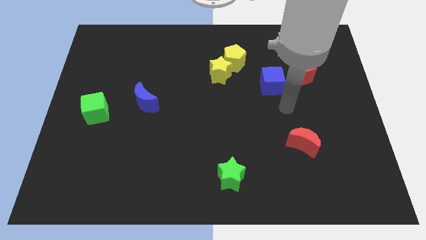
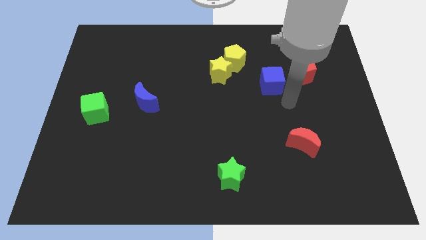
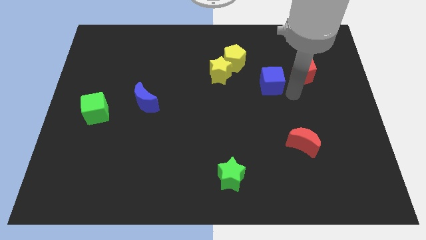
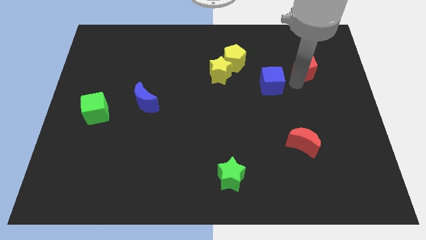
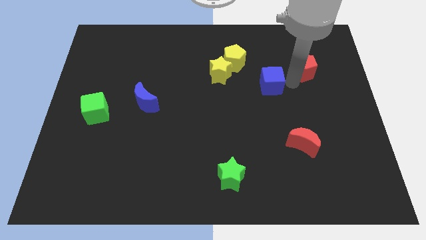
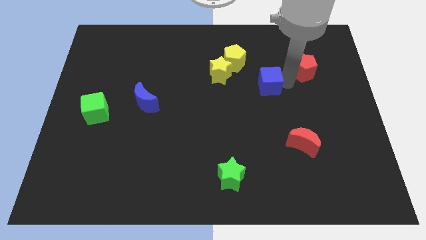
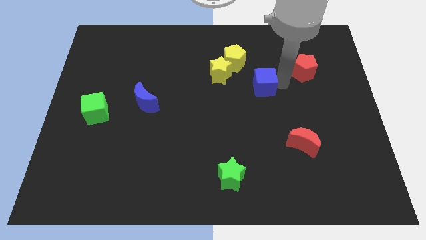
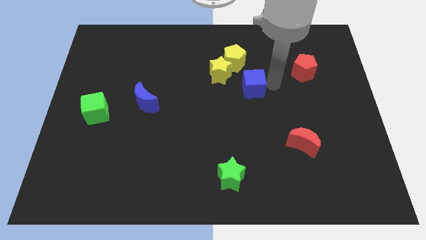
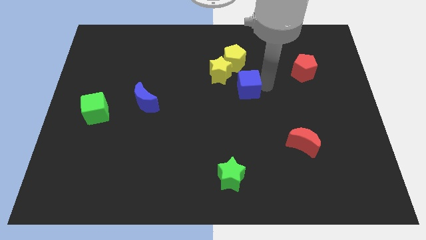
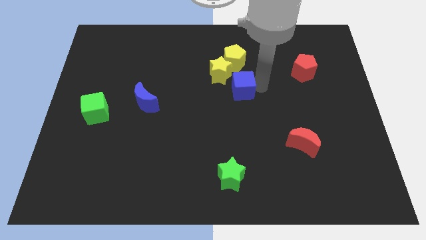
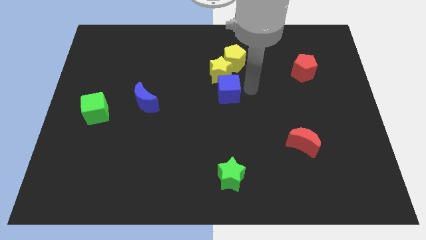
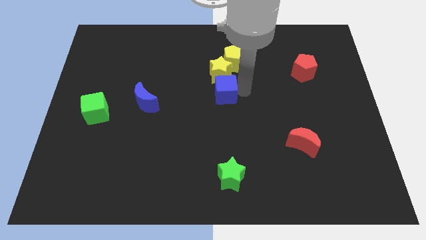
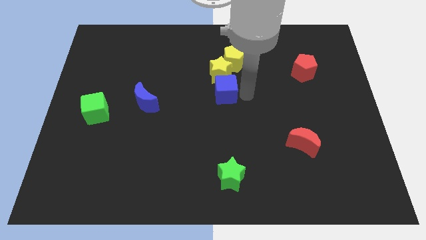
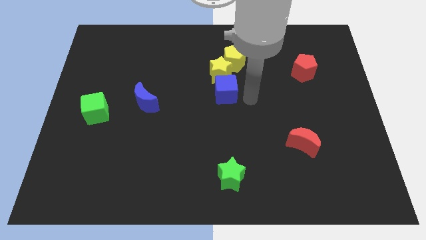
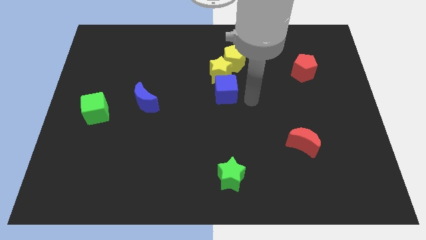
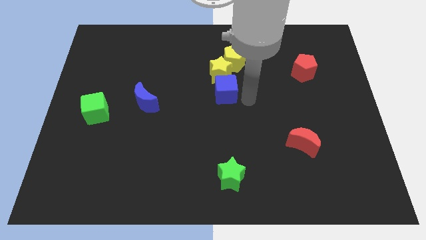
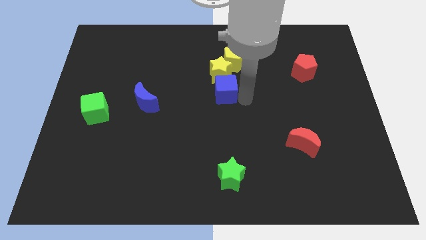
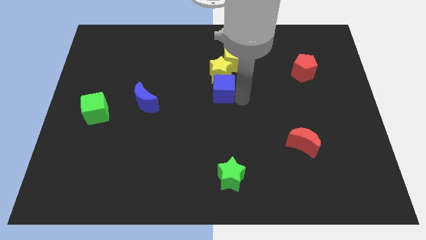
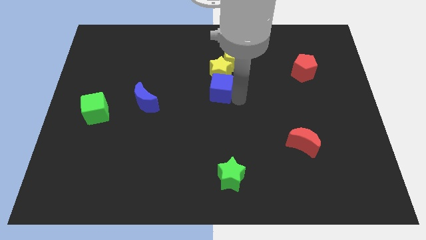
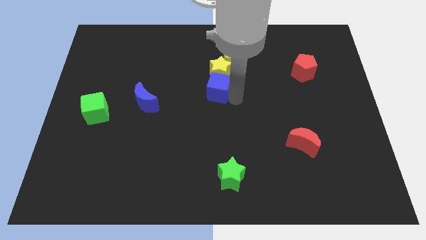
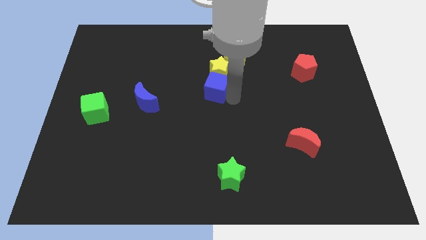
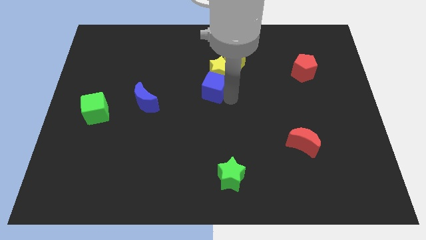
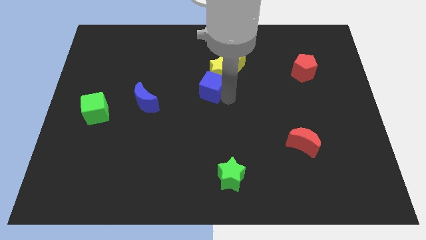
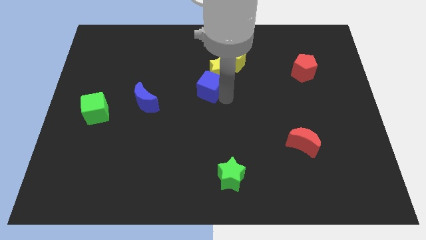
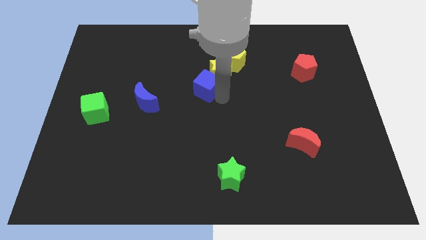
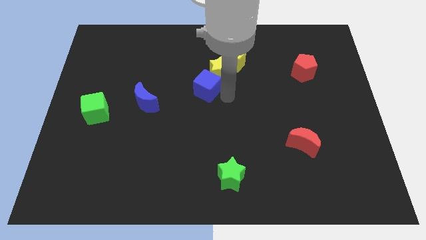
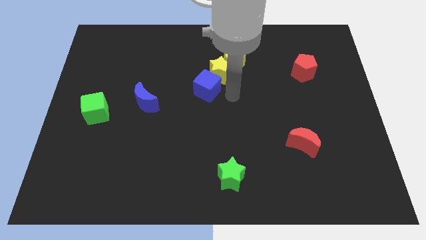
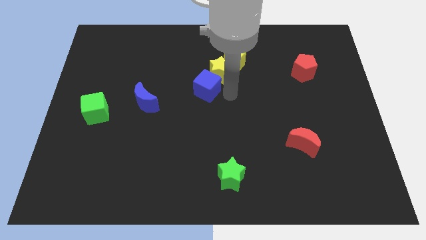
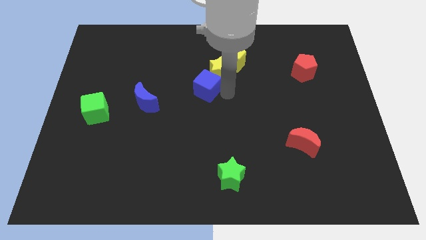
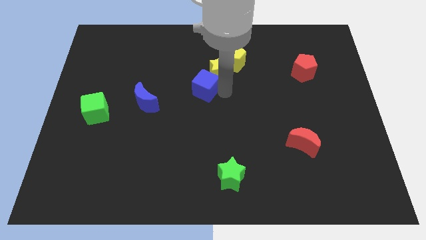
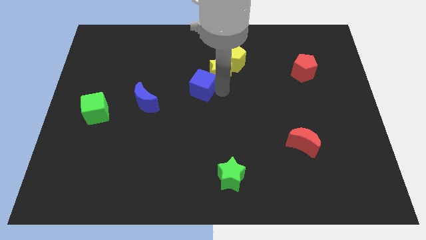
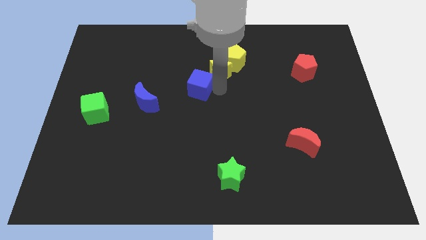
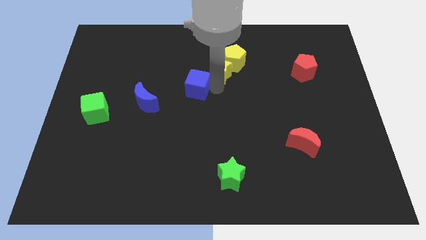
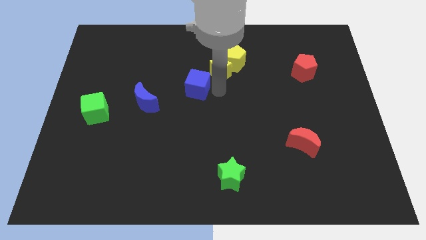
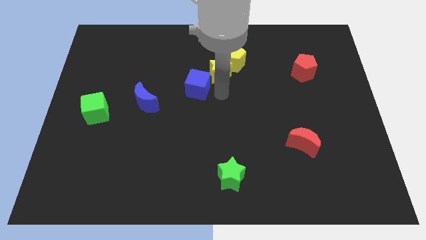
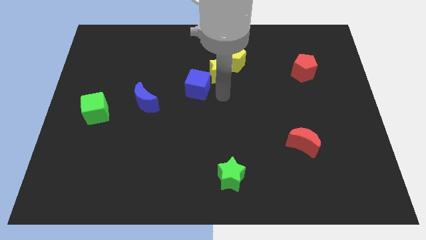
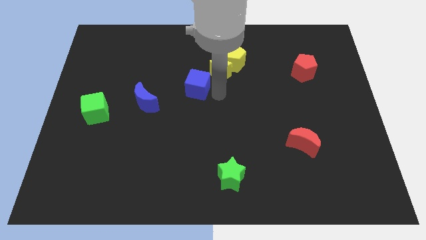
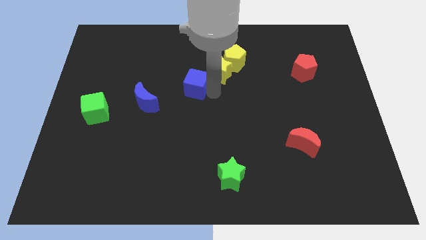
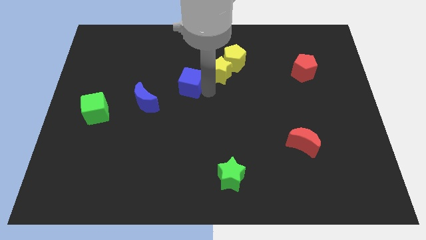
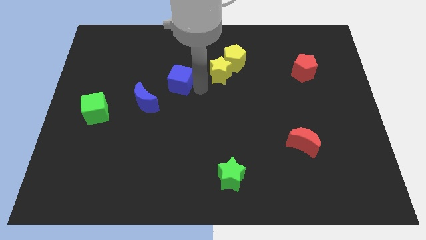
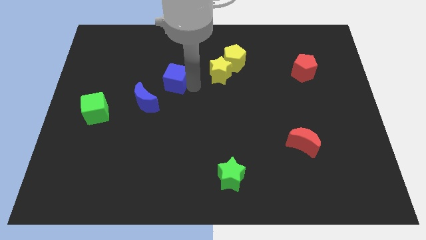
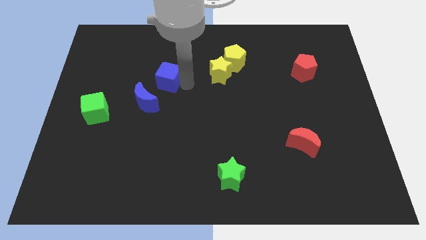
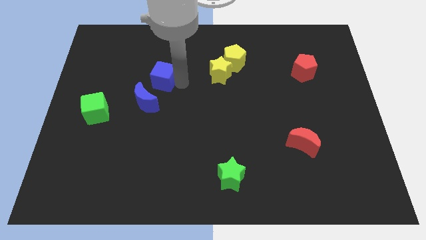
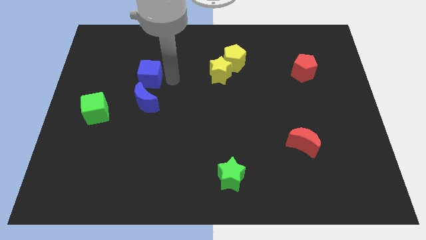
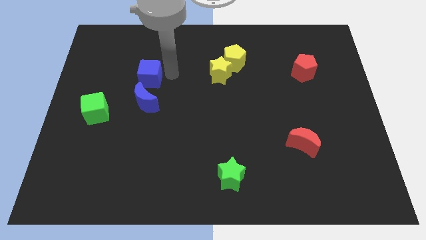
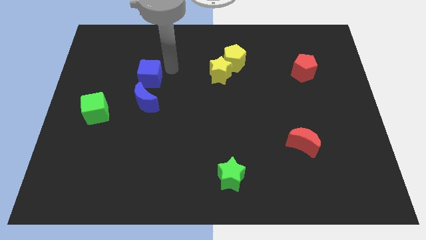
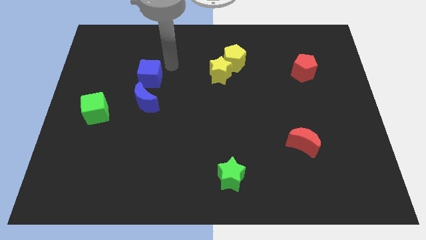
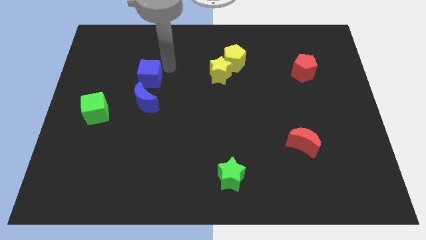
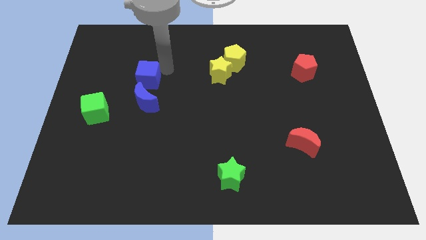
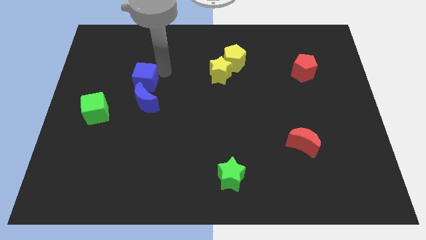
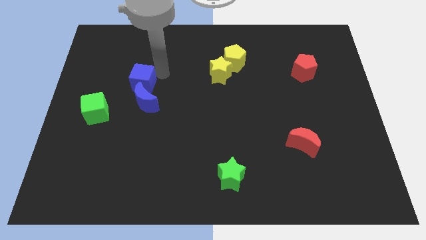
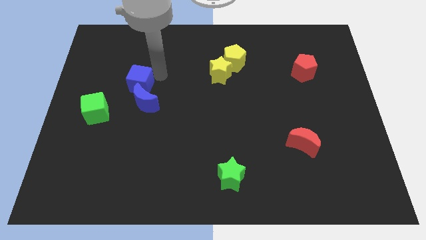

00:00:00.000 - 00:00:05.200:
put the blue cube to the top right side of the green cube

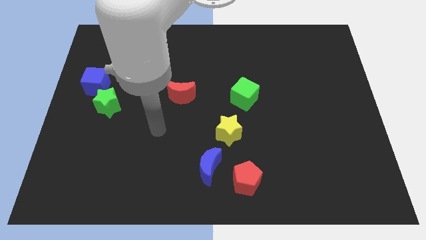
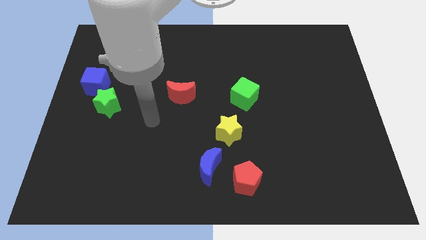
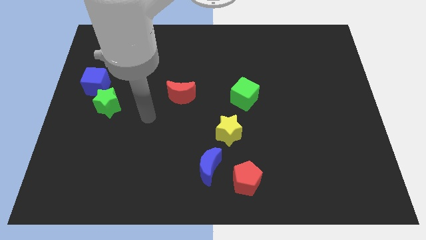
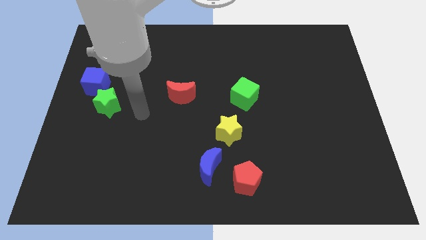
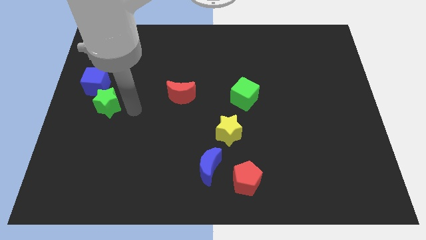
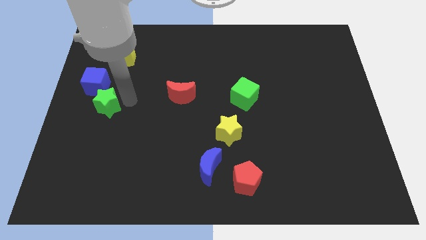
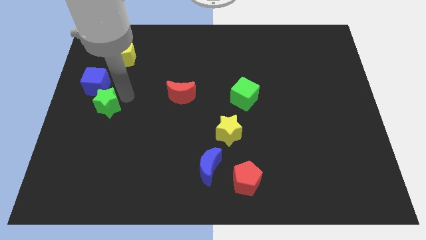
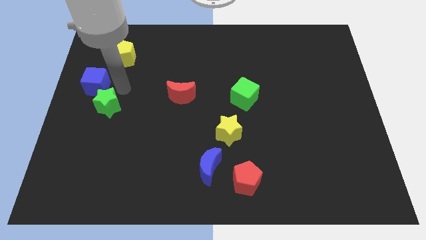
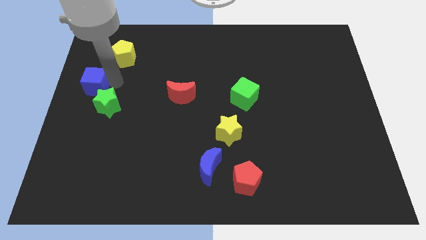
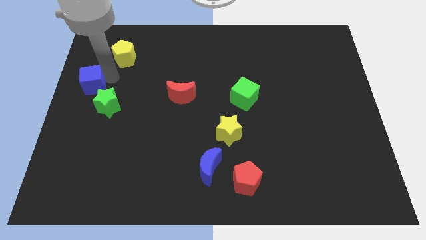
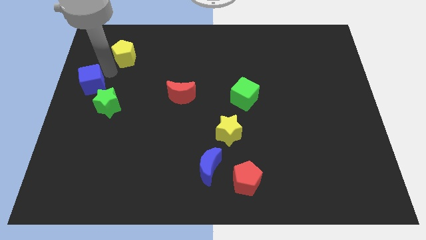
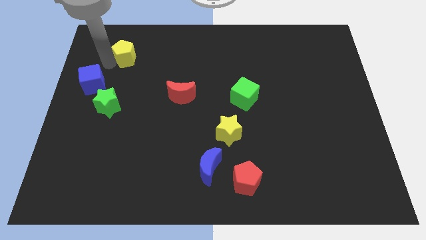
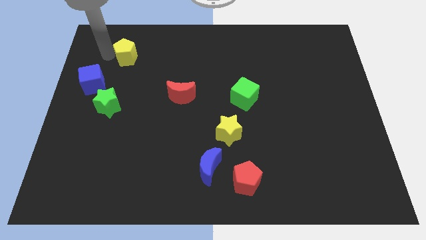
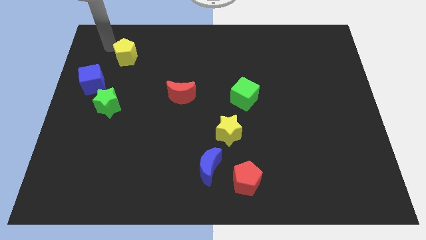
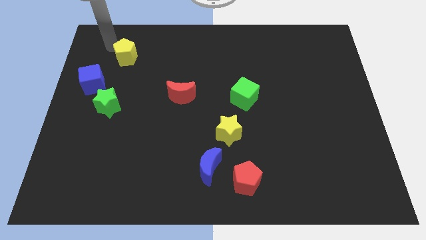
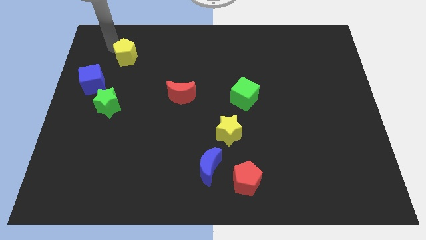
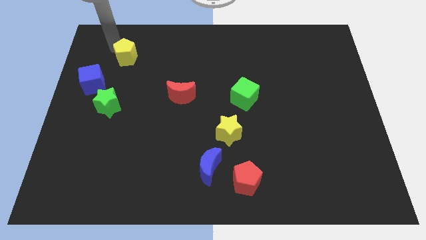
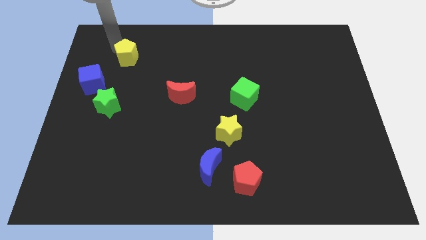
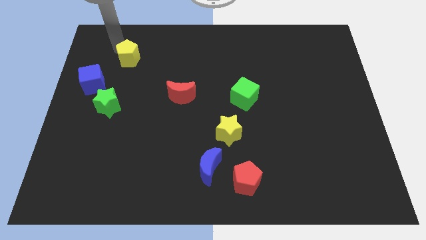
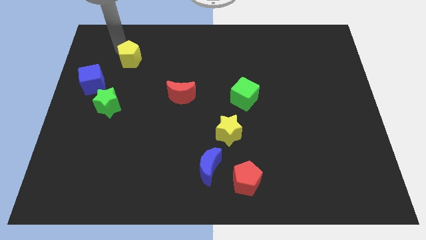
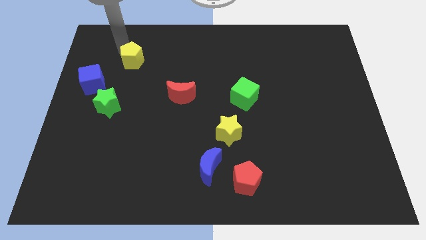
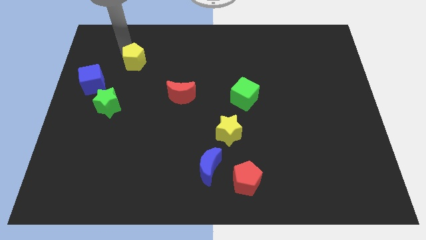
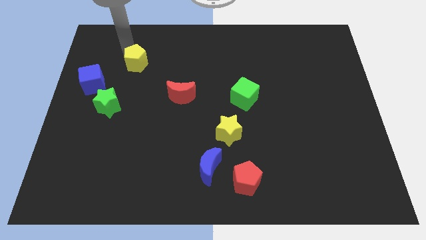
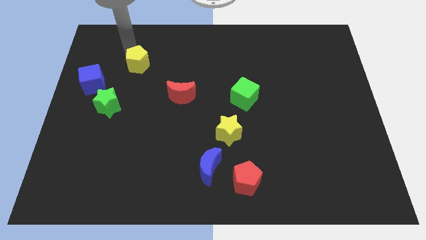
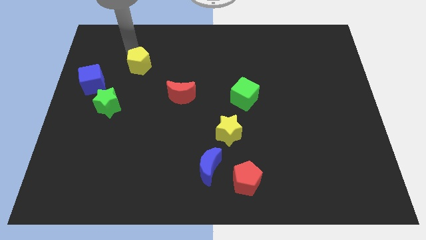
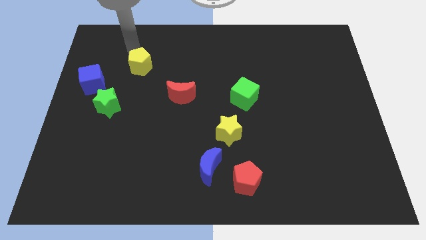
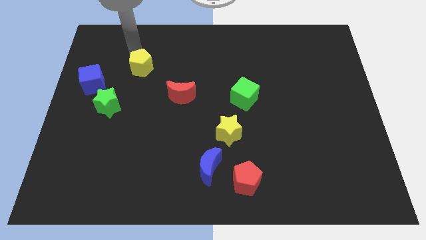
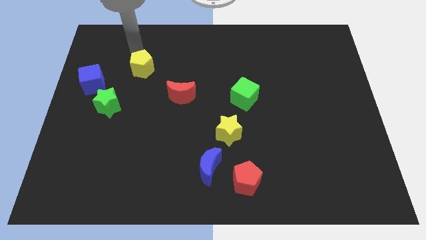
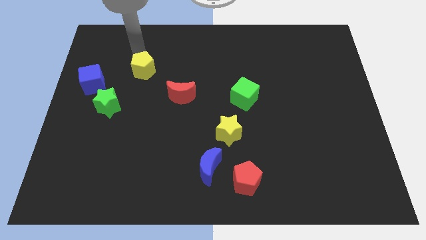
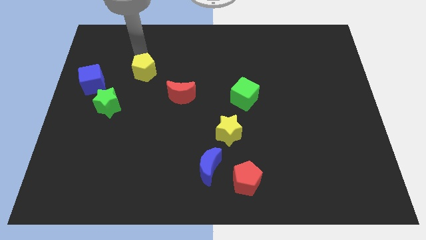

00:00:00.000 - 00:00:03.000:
slide the yellow pentagon to the top left side of the red moon
